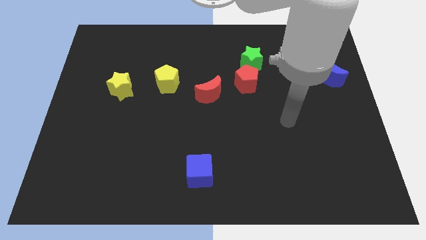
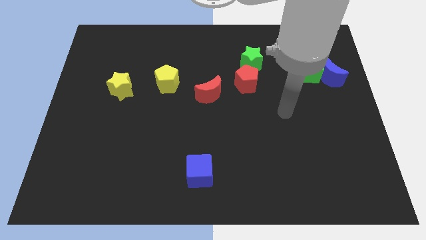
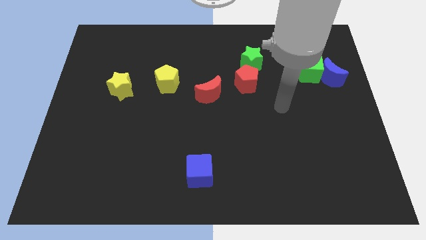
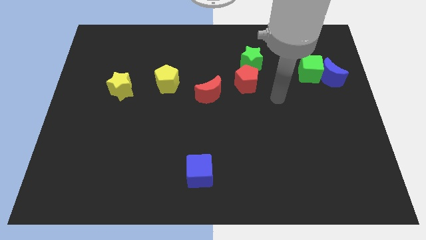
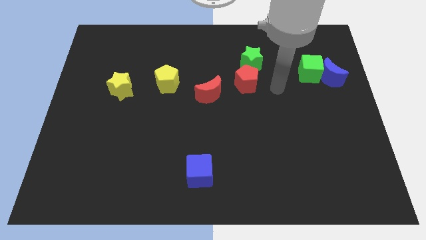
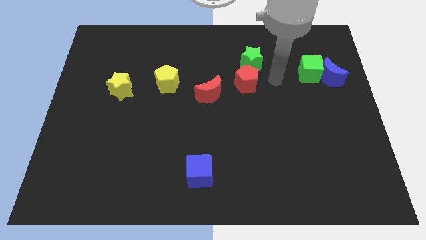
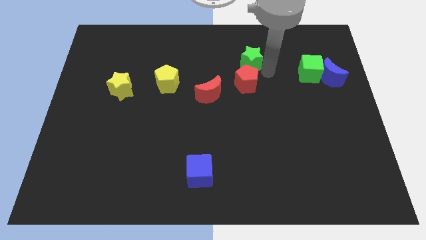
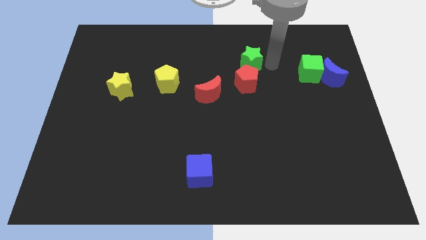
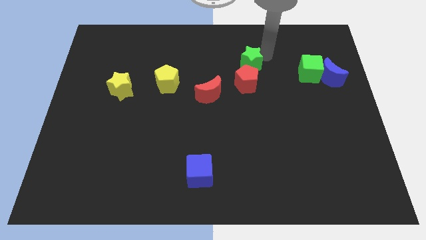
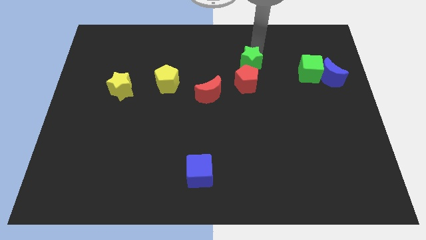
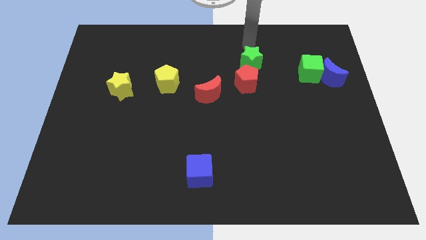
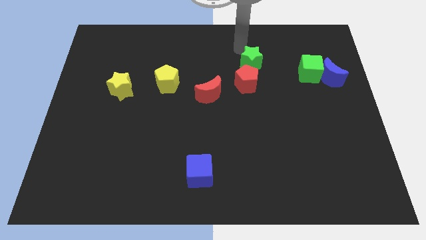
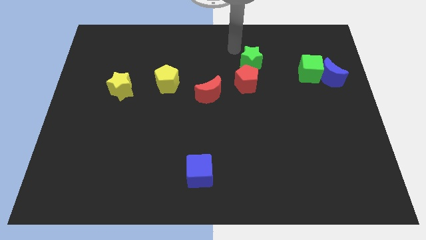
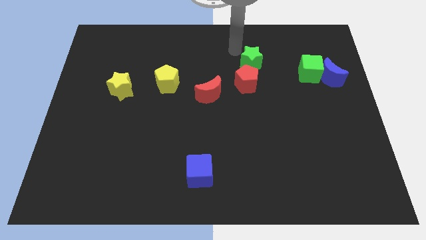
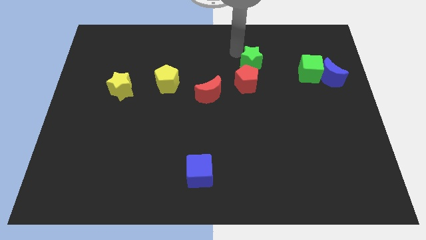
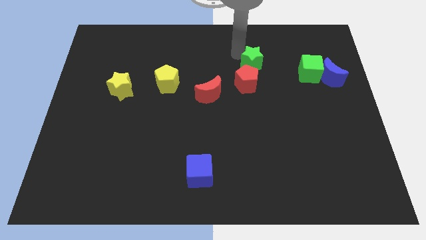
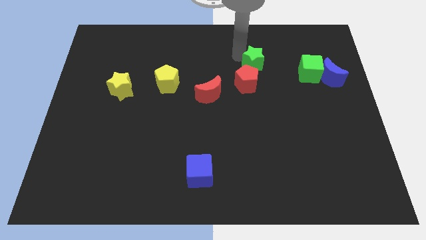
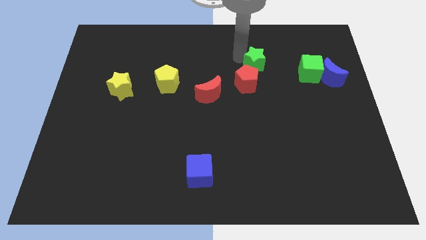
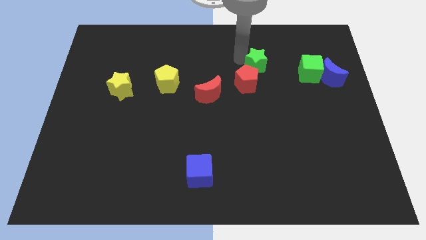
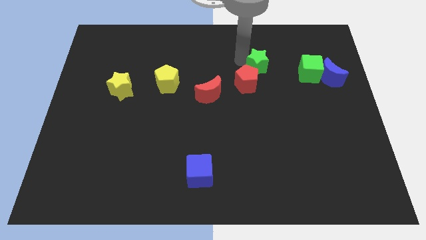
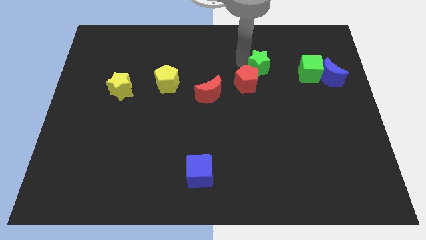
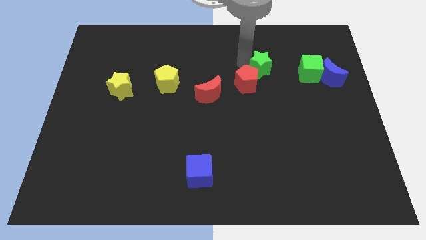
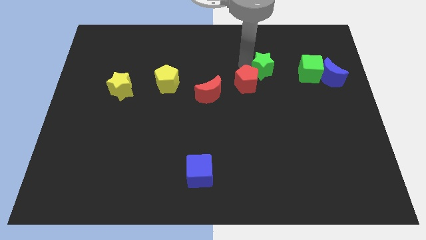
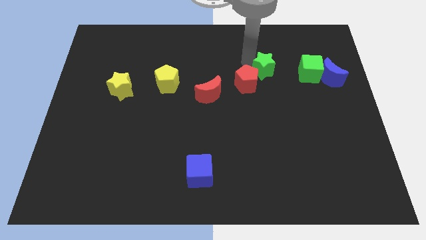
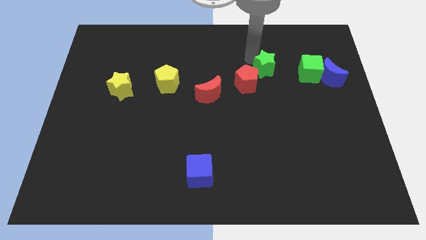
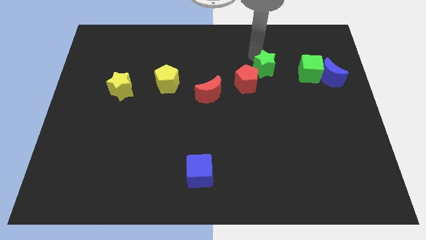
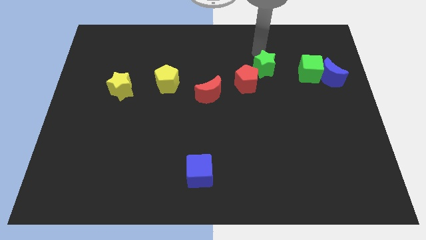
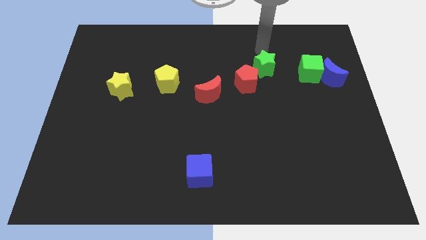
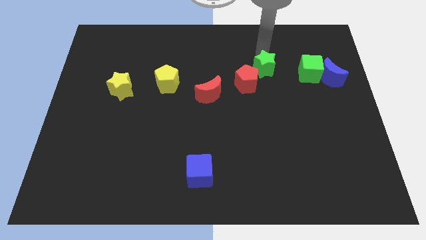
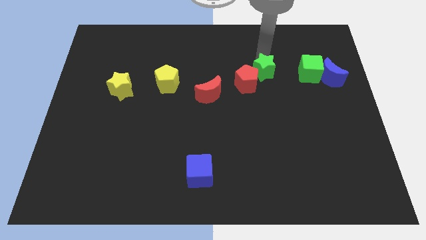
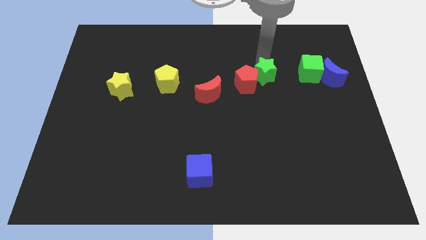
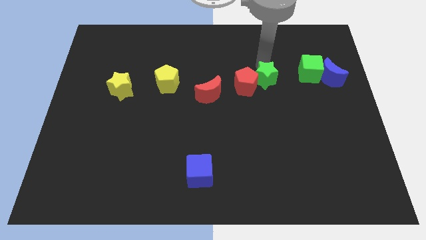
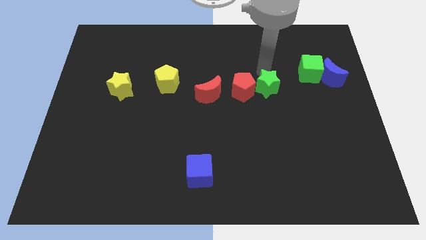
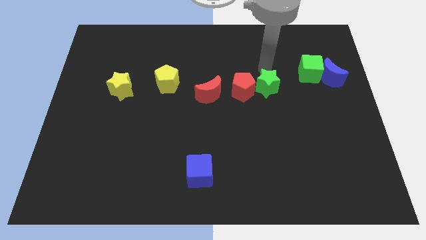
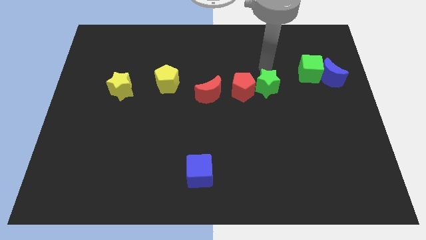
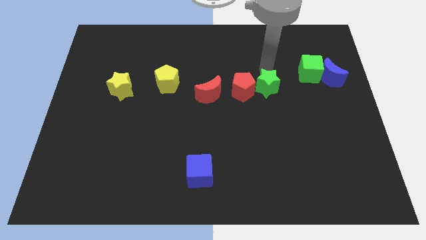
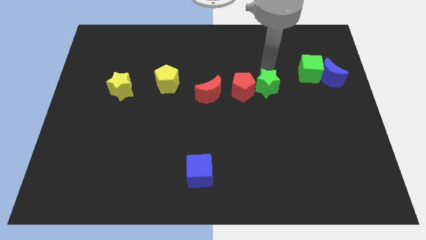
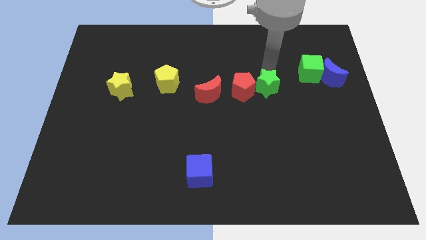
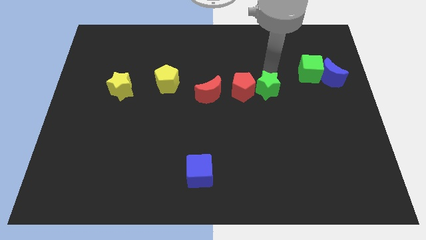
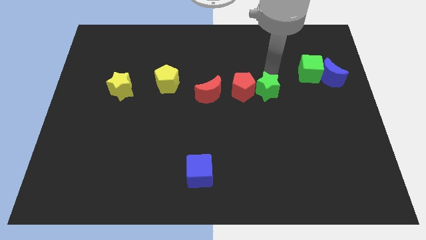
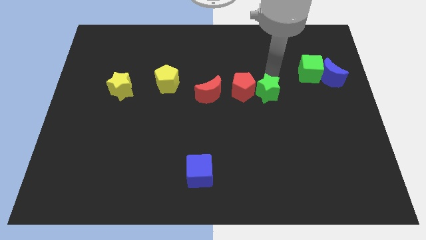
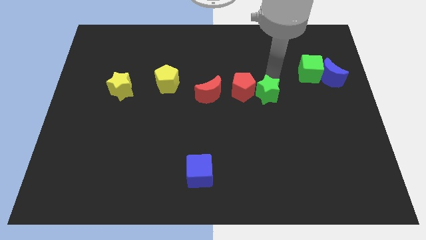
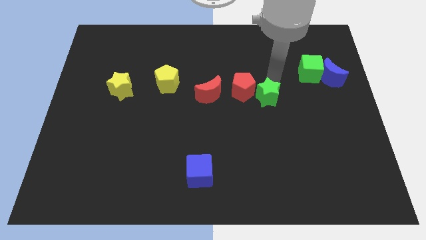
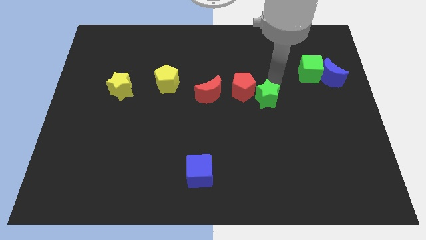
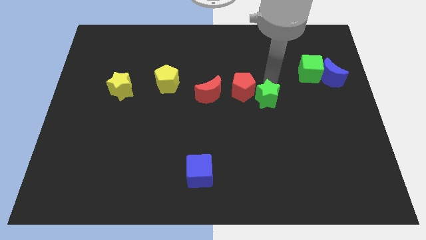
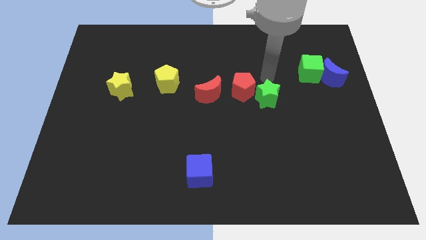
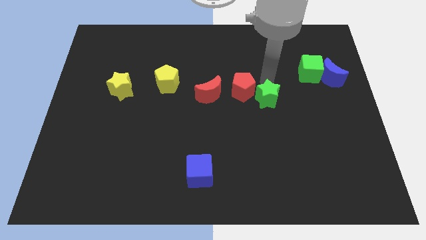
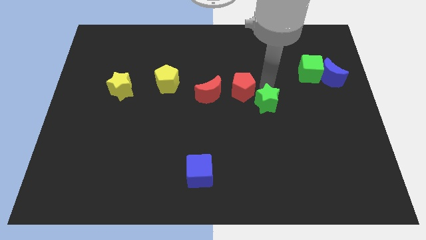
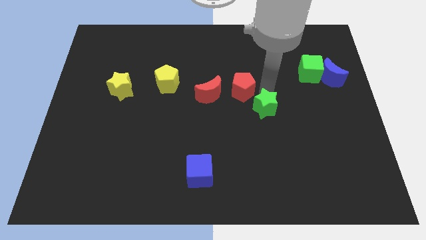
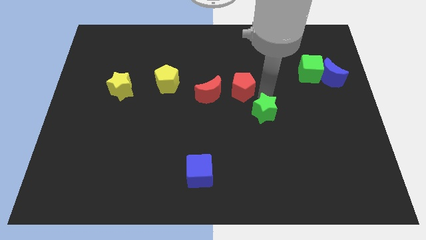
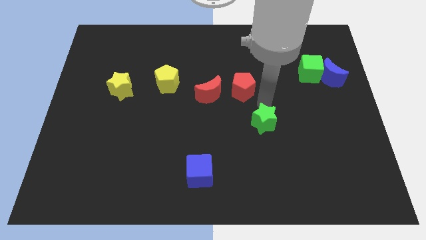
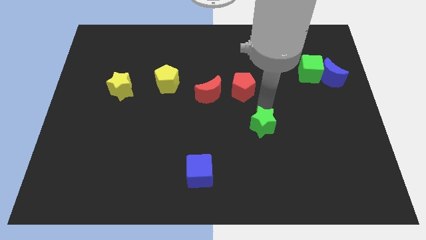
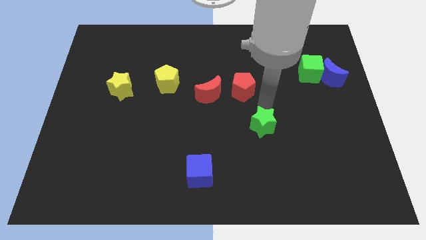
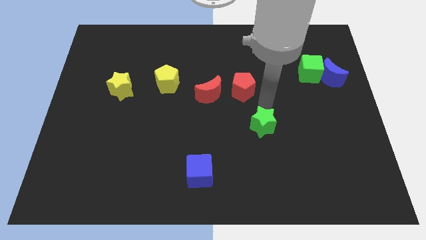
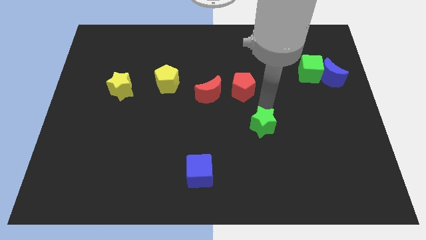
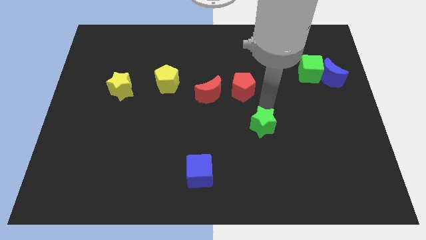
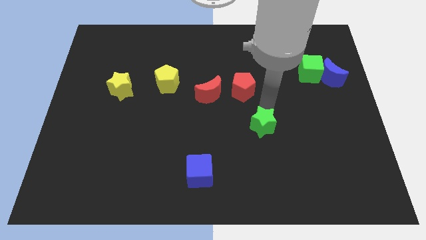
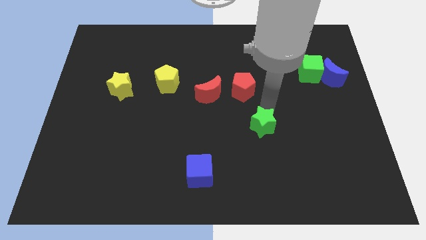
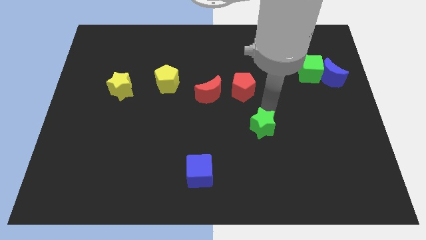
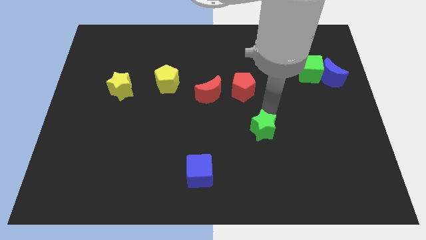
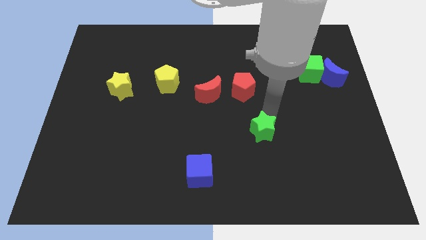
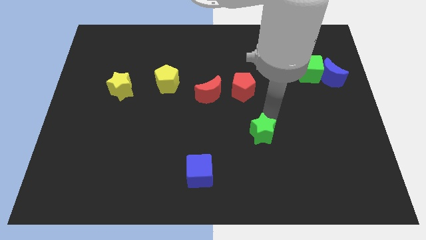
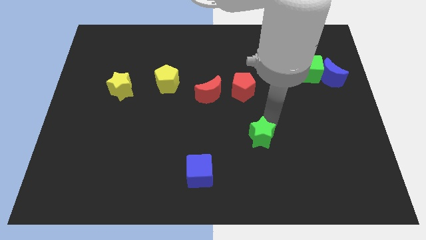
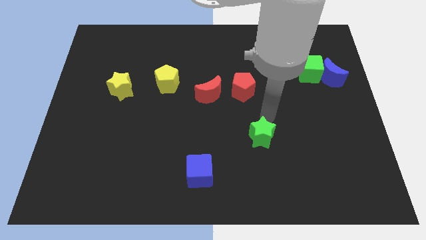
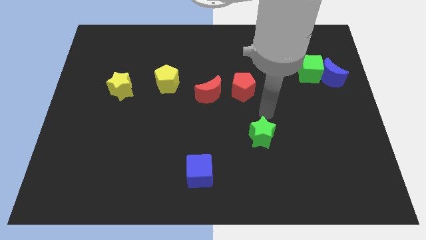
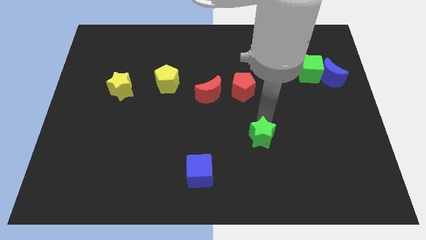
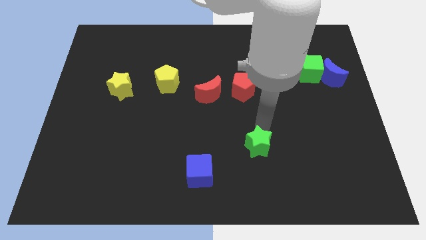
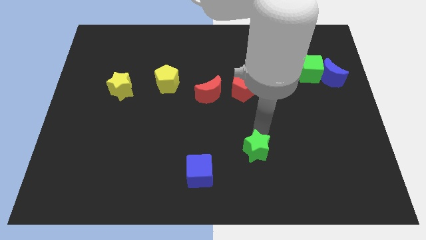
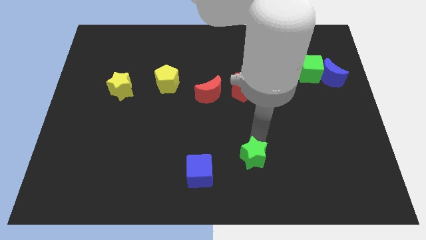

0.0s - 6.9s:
push the green star to the right side of the blue cube

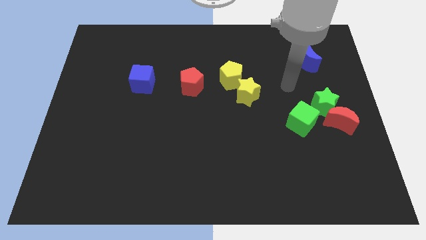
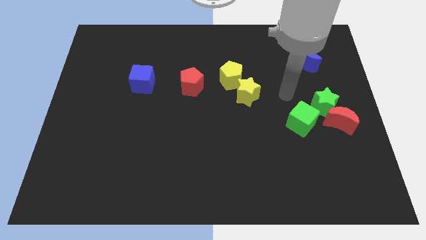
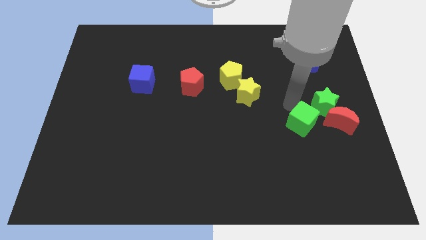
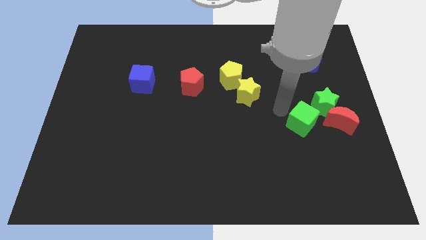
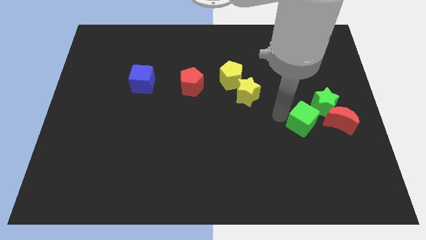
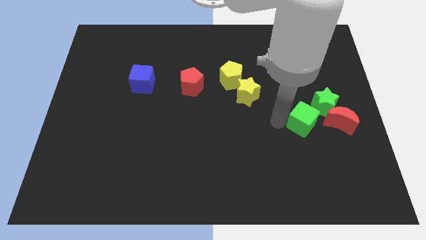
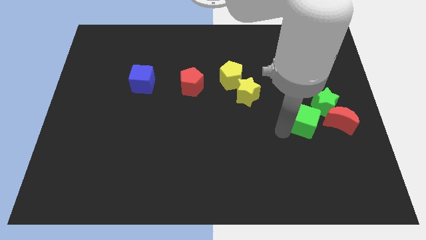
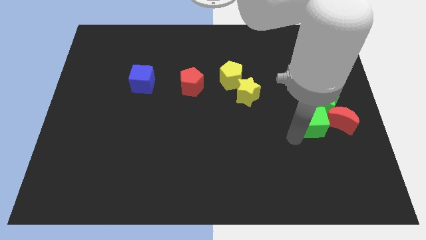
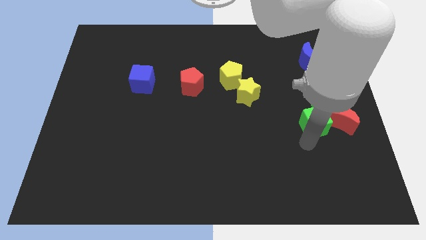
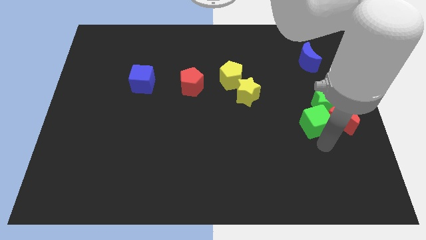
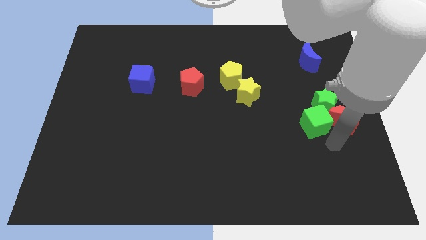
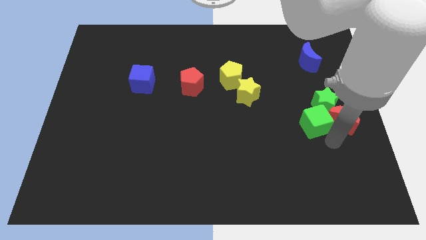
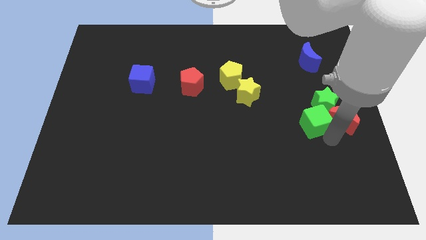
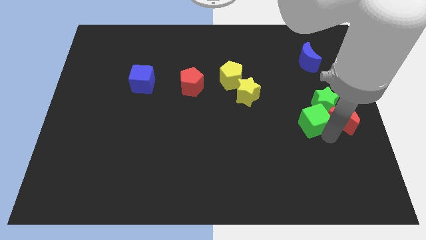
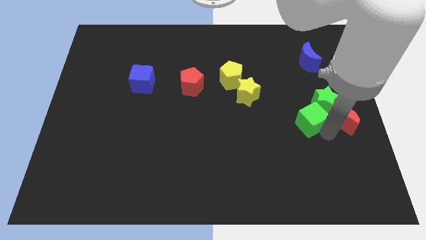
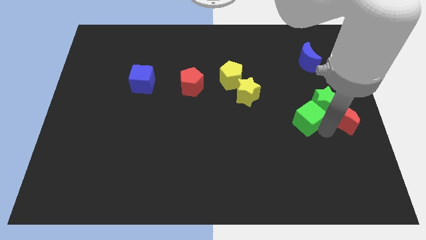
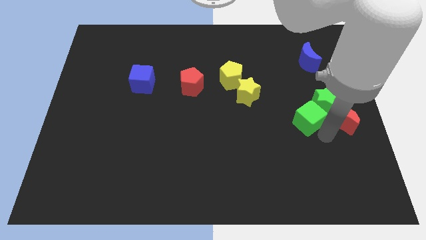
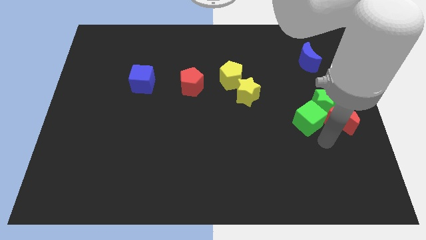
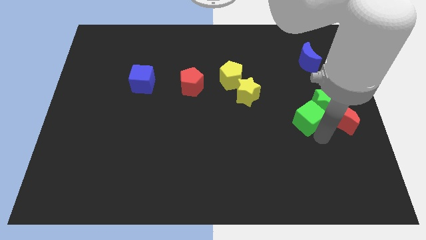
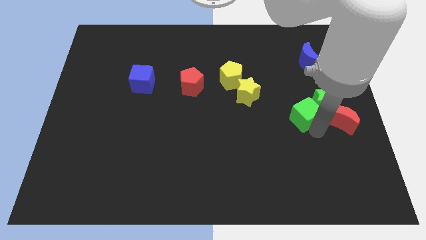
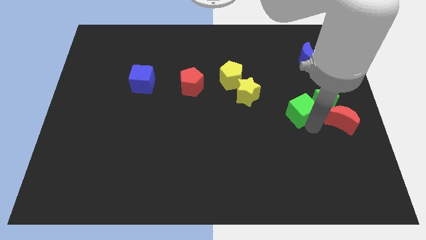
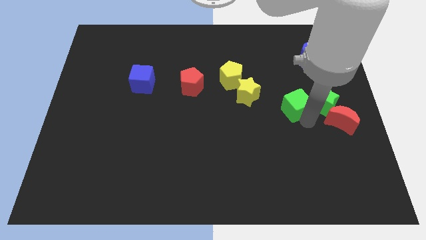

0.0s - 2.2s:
push the green cube just right of the yellow star
